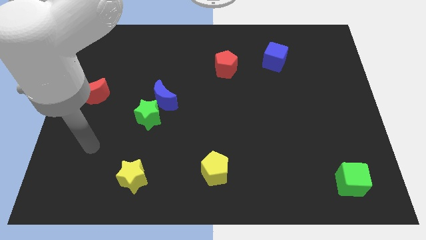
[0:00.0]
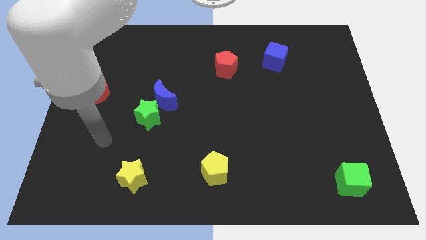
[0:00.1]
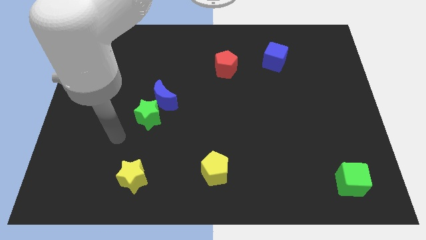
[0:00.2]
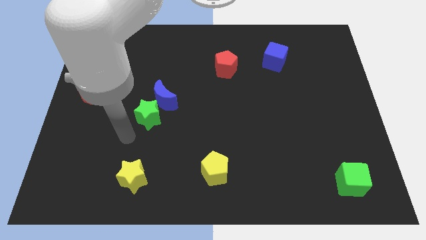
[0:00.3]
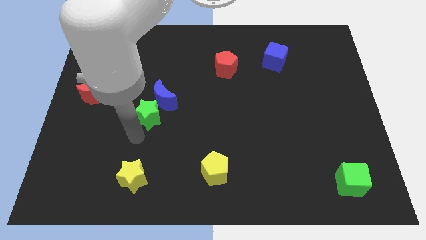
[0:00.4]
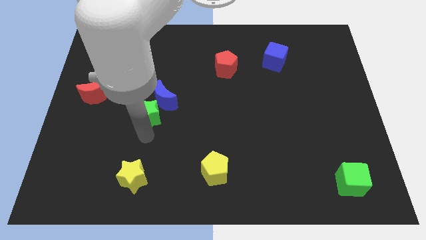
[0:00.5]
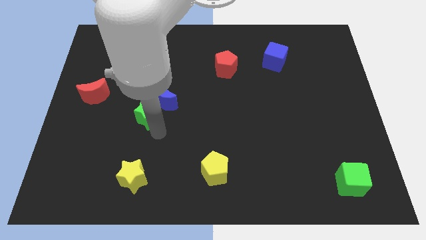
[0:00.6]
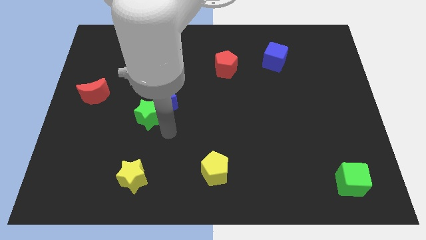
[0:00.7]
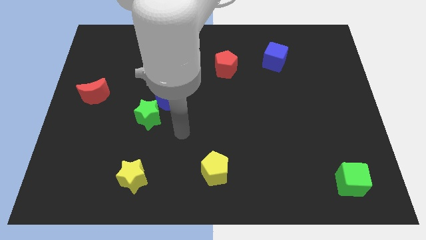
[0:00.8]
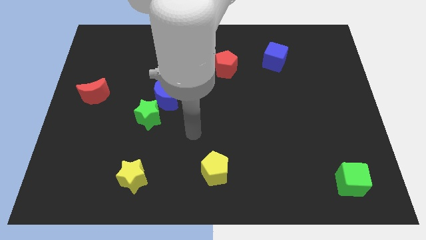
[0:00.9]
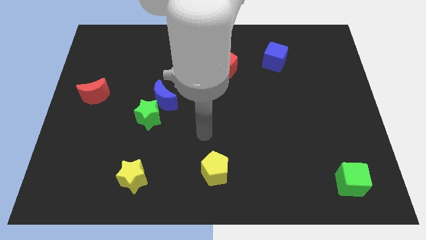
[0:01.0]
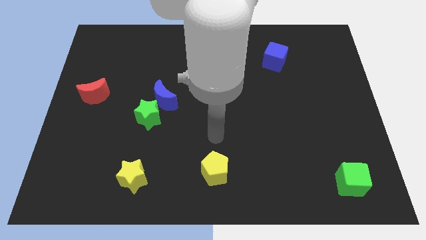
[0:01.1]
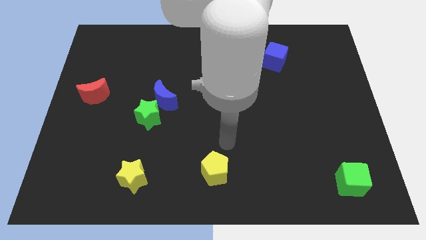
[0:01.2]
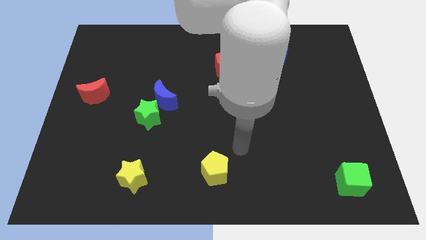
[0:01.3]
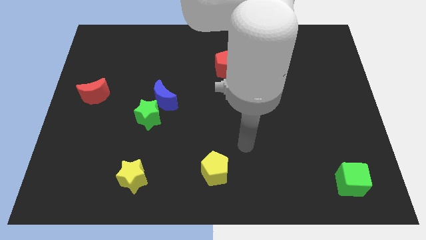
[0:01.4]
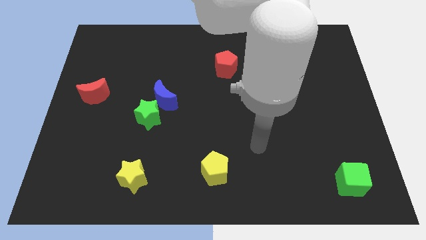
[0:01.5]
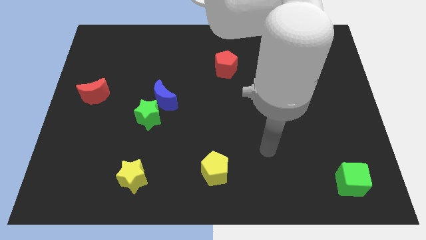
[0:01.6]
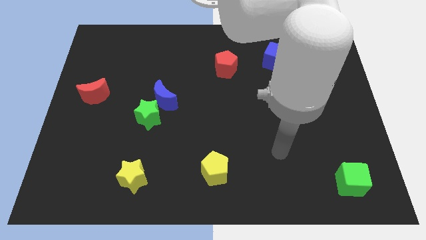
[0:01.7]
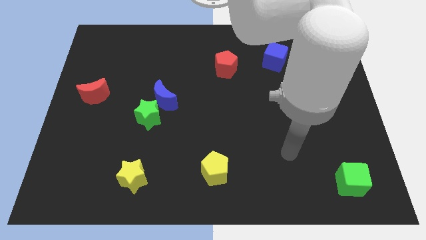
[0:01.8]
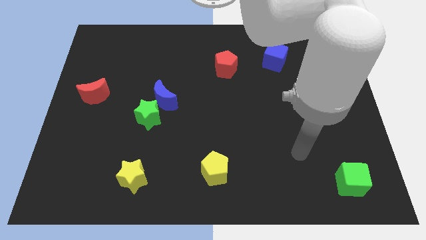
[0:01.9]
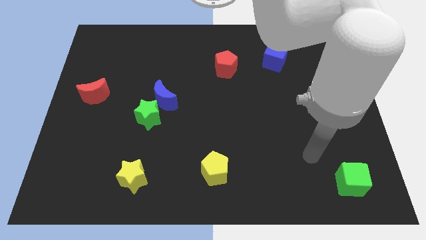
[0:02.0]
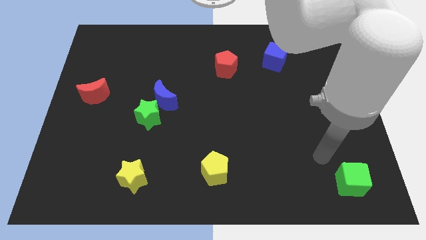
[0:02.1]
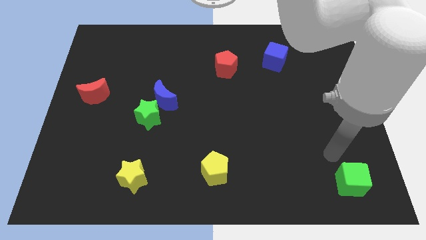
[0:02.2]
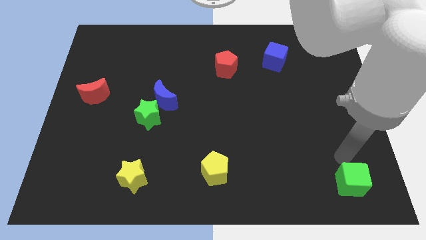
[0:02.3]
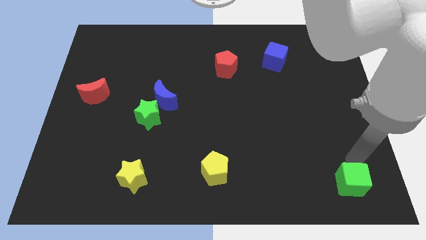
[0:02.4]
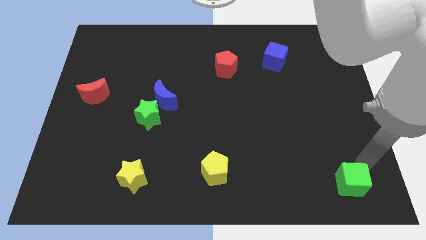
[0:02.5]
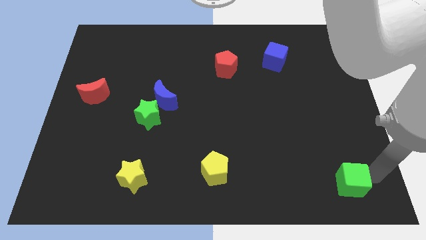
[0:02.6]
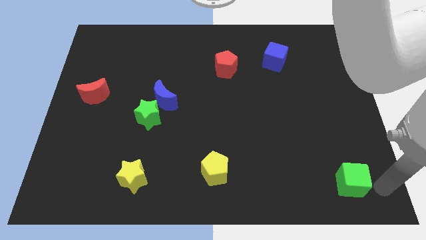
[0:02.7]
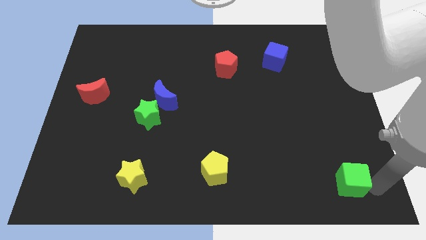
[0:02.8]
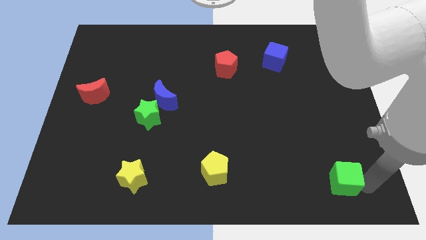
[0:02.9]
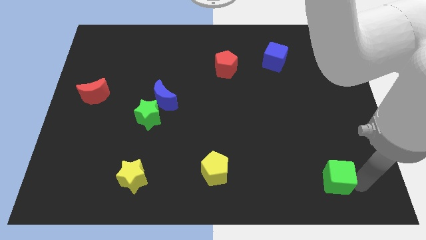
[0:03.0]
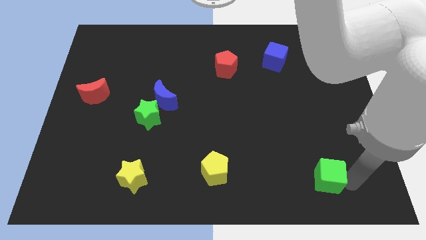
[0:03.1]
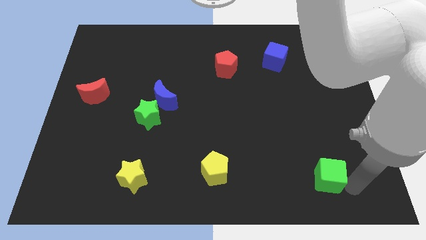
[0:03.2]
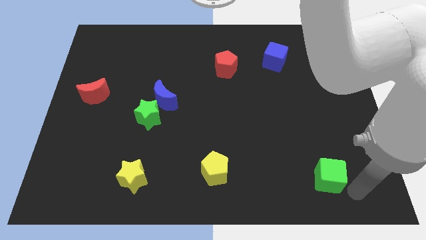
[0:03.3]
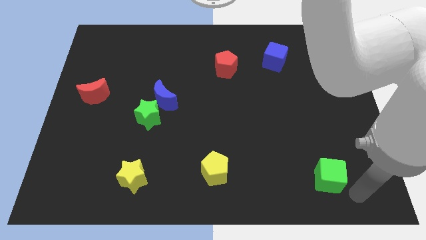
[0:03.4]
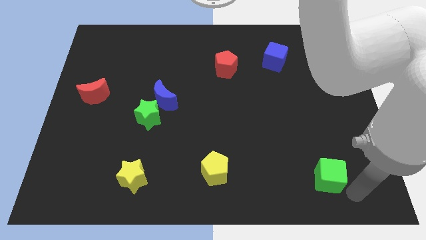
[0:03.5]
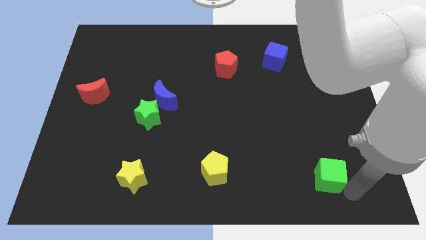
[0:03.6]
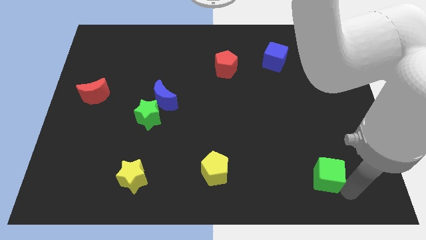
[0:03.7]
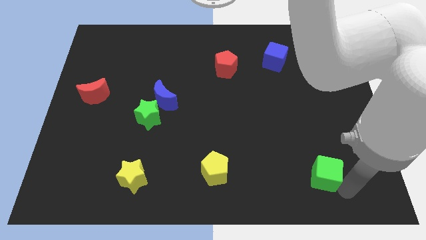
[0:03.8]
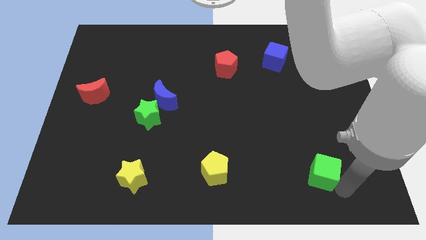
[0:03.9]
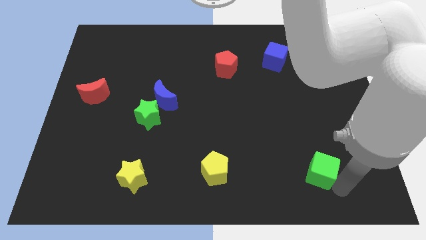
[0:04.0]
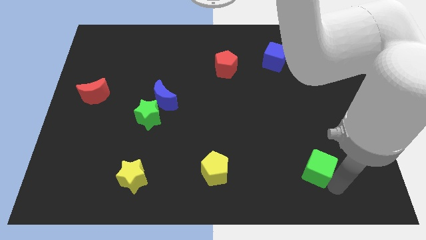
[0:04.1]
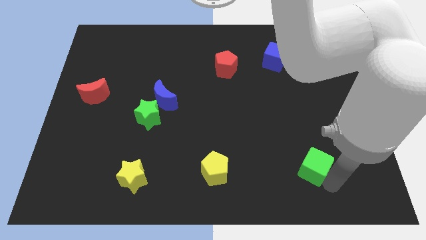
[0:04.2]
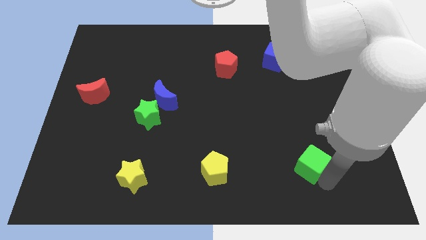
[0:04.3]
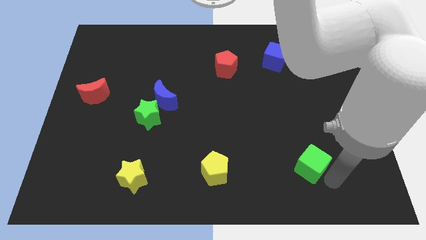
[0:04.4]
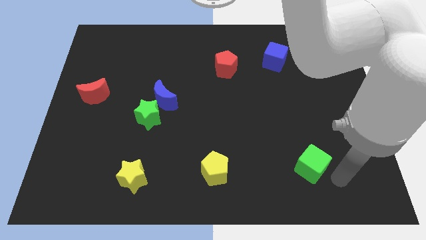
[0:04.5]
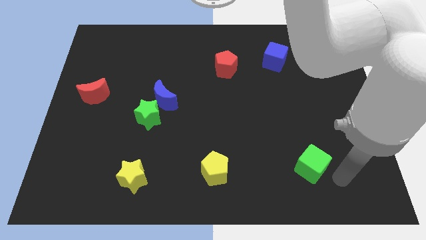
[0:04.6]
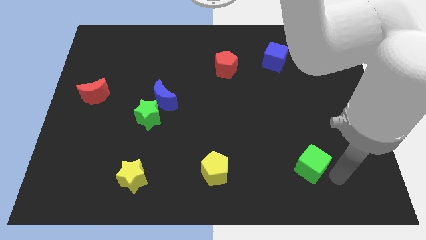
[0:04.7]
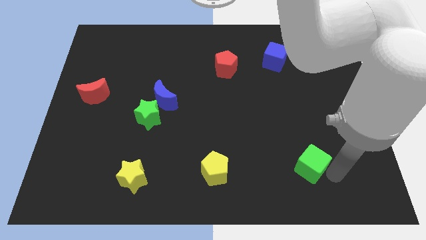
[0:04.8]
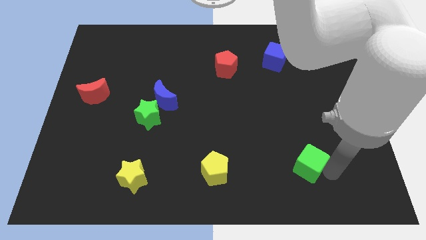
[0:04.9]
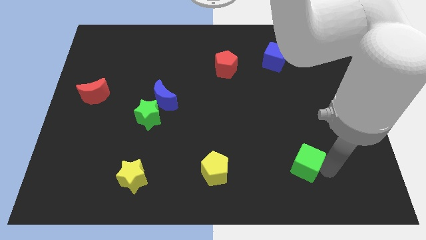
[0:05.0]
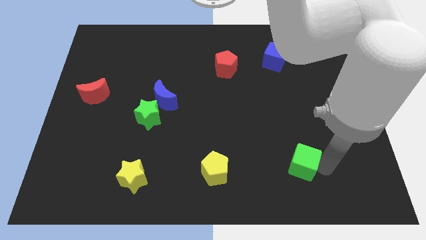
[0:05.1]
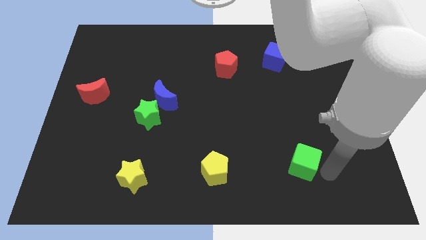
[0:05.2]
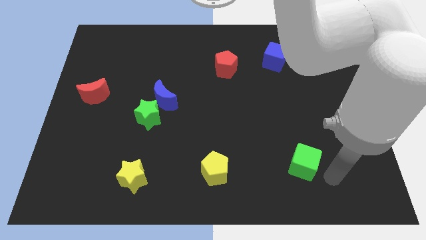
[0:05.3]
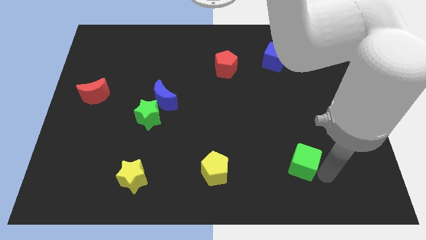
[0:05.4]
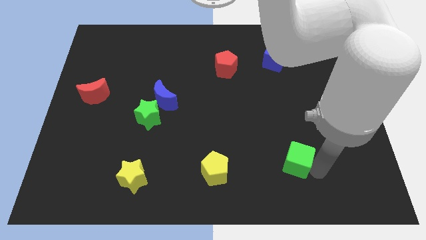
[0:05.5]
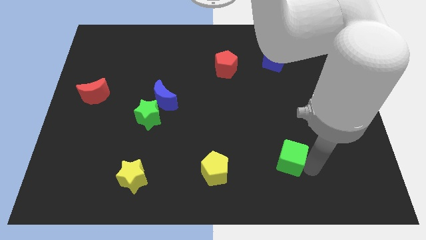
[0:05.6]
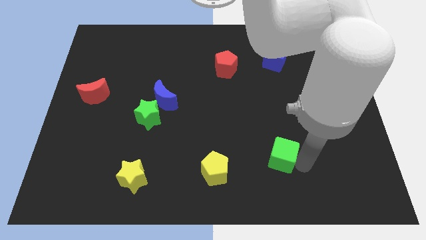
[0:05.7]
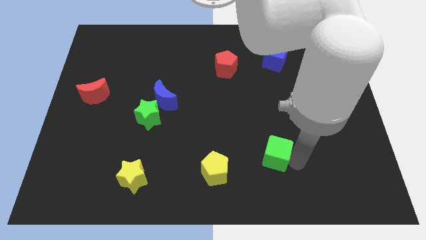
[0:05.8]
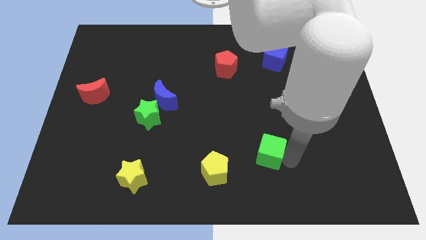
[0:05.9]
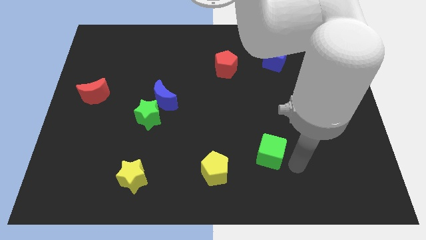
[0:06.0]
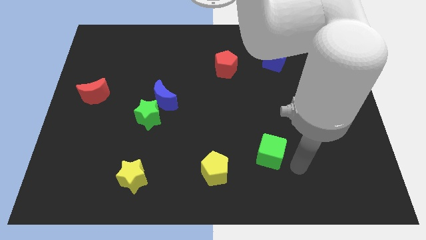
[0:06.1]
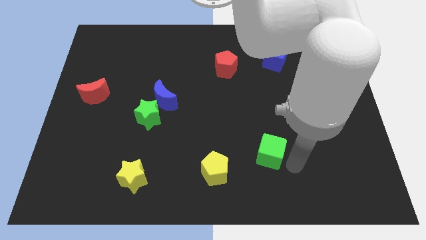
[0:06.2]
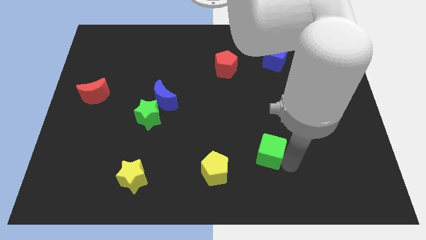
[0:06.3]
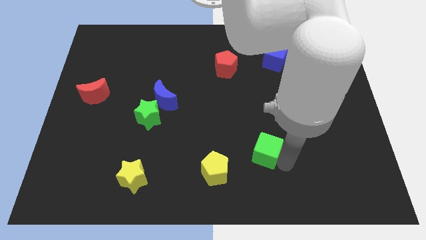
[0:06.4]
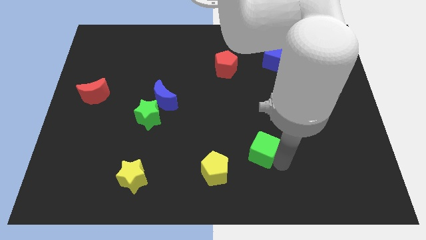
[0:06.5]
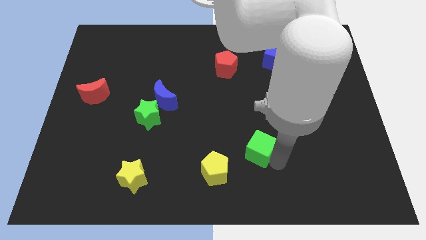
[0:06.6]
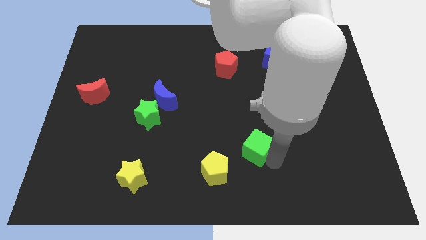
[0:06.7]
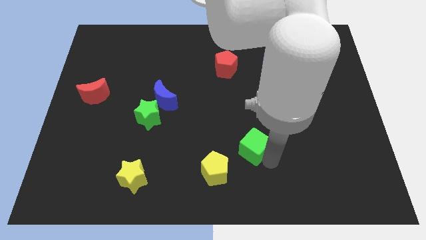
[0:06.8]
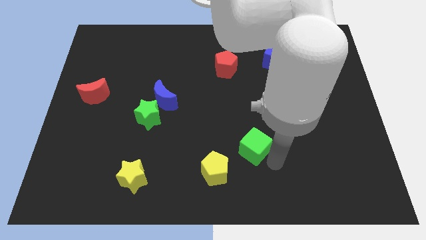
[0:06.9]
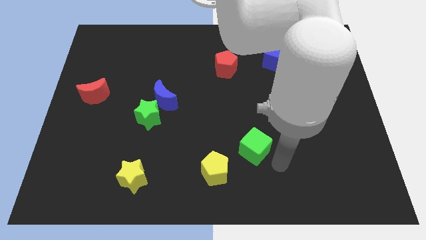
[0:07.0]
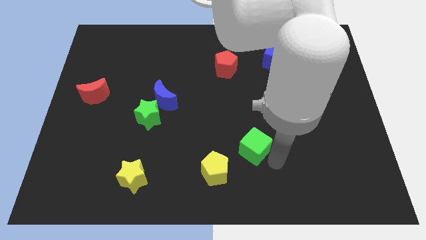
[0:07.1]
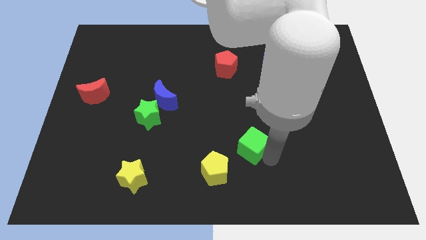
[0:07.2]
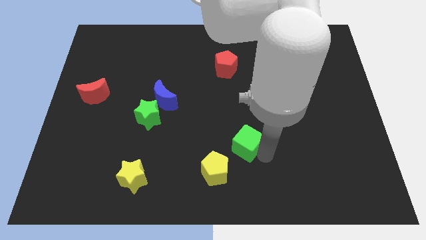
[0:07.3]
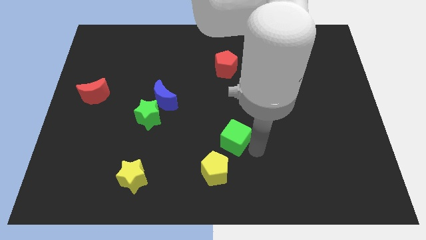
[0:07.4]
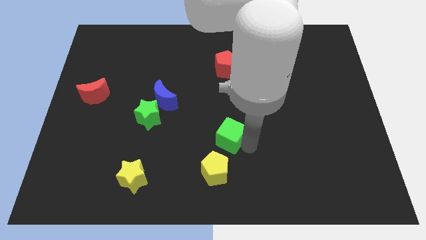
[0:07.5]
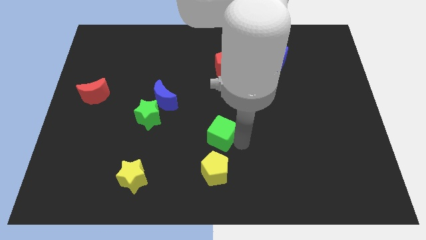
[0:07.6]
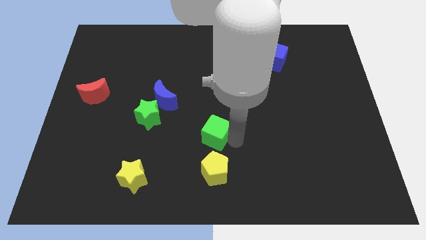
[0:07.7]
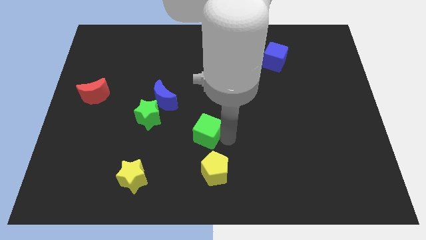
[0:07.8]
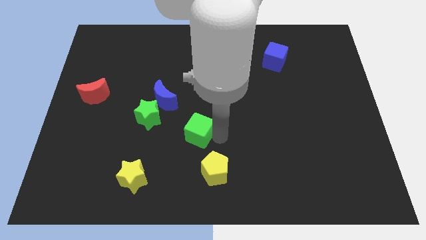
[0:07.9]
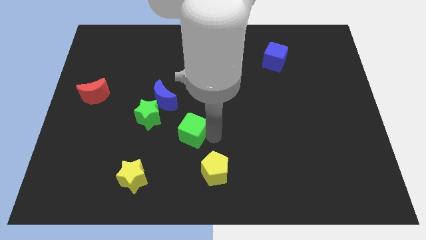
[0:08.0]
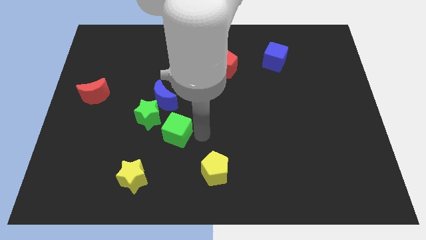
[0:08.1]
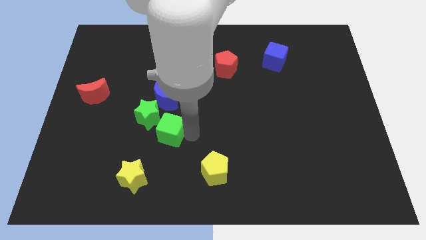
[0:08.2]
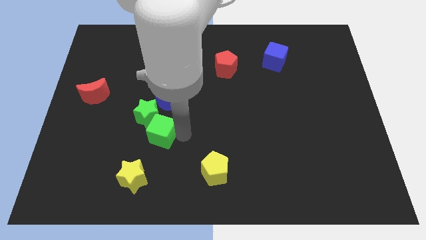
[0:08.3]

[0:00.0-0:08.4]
slide the green cube next to the green star
